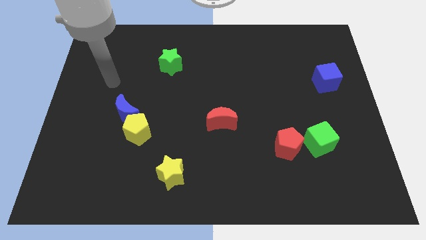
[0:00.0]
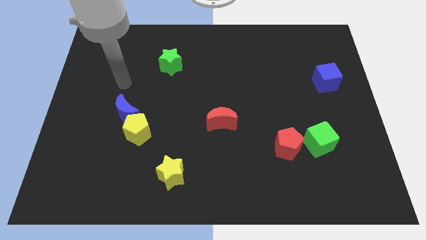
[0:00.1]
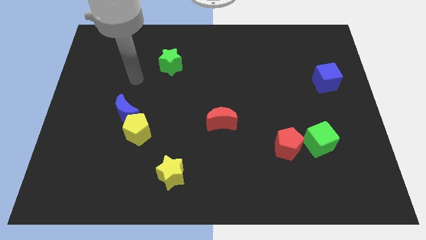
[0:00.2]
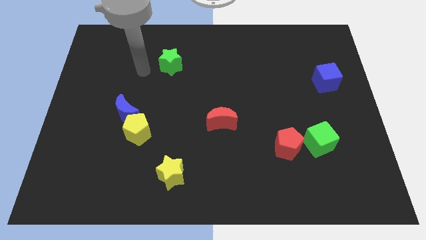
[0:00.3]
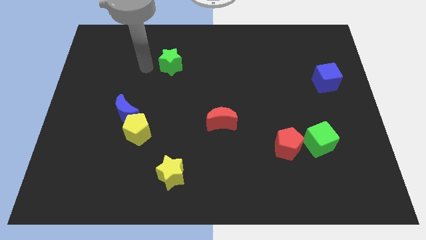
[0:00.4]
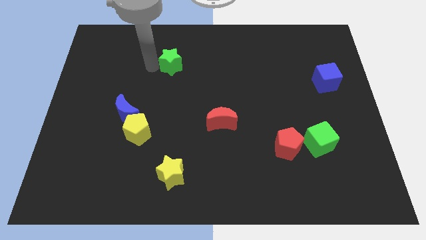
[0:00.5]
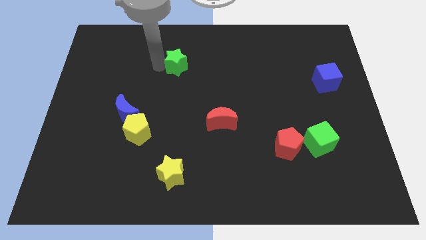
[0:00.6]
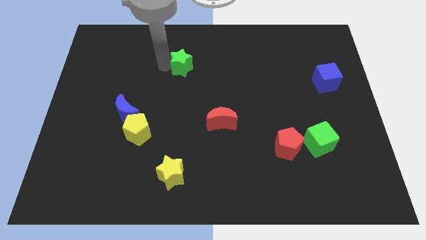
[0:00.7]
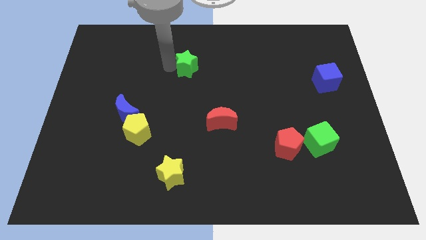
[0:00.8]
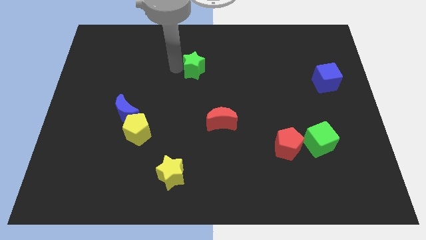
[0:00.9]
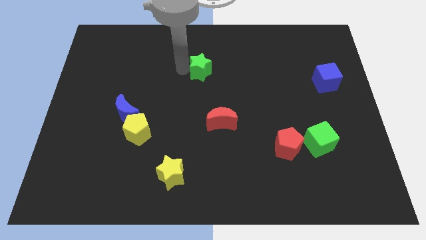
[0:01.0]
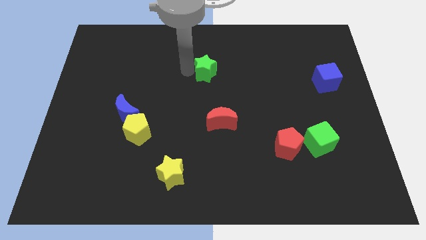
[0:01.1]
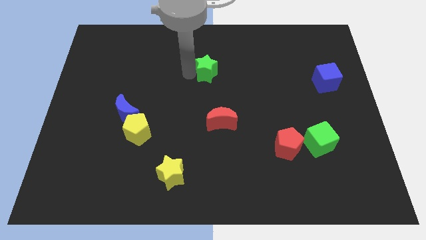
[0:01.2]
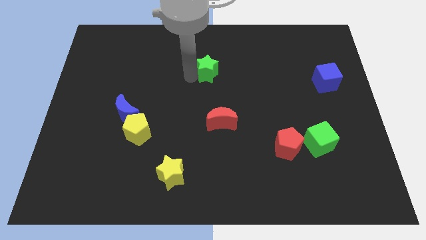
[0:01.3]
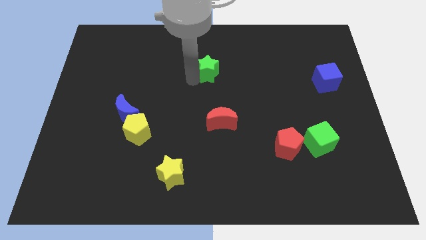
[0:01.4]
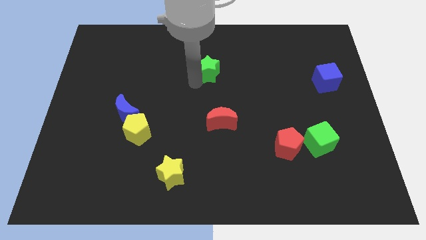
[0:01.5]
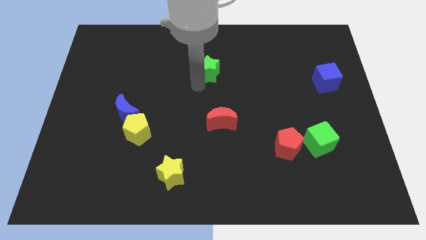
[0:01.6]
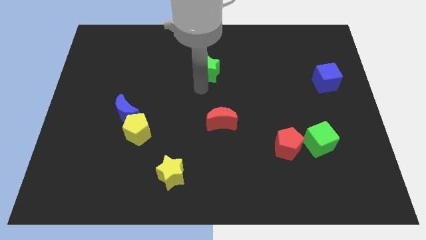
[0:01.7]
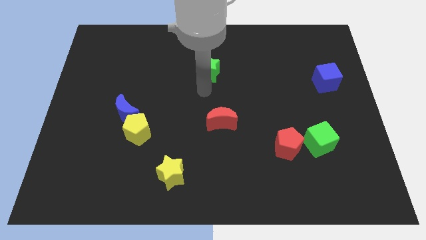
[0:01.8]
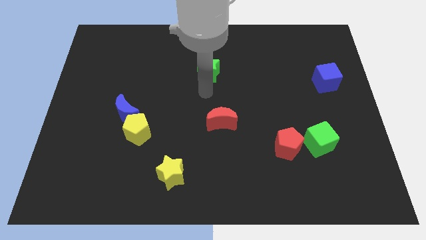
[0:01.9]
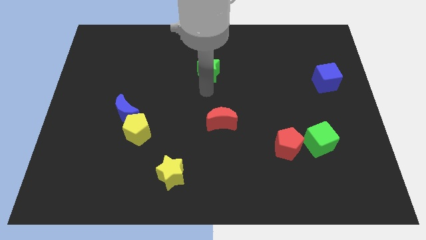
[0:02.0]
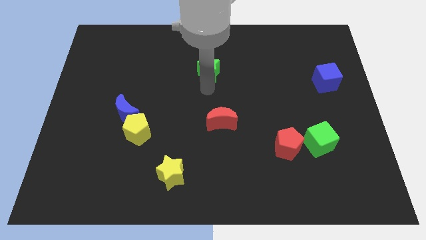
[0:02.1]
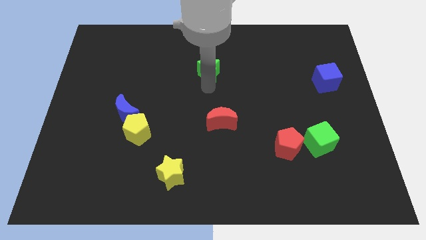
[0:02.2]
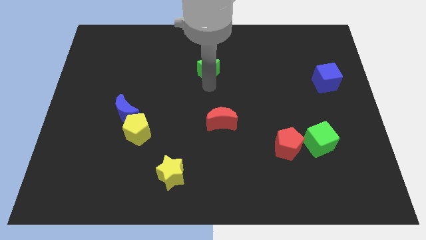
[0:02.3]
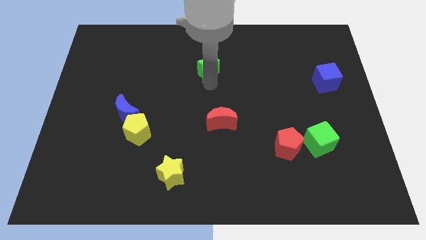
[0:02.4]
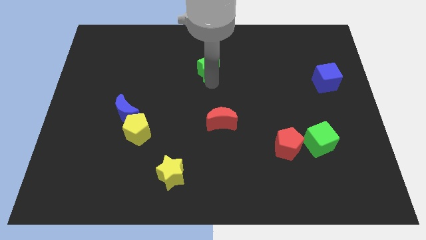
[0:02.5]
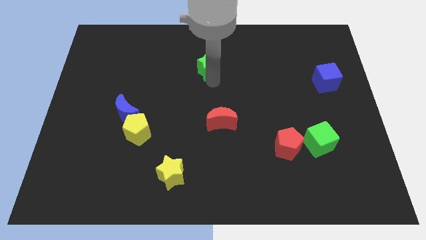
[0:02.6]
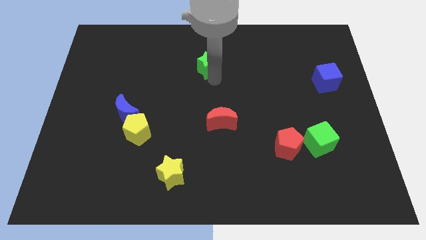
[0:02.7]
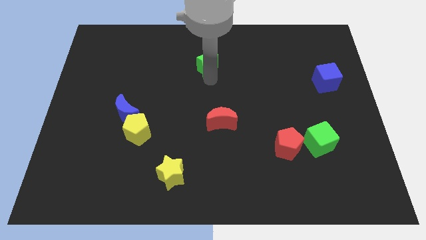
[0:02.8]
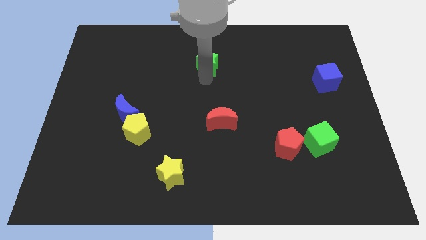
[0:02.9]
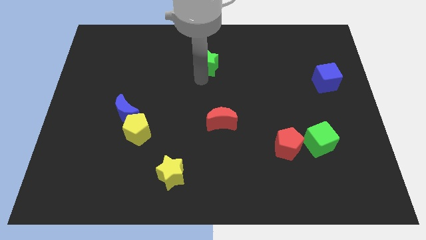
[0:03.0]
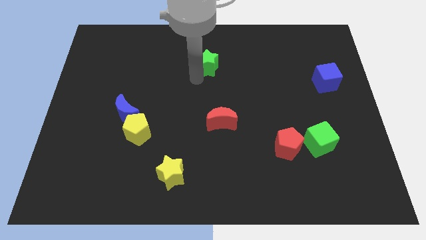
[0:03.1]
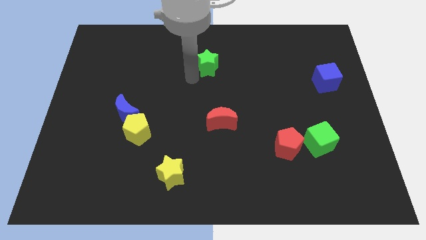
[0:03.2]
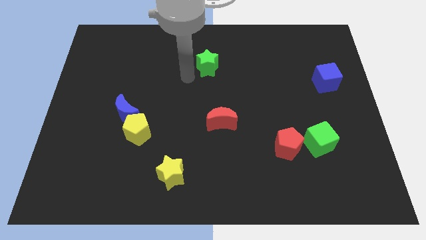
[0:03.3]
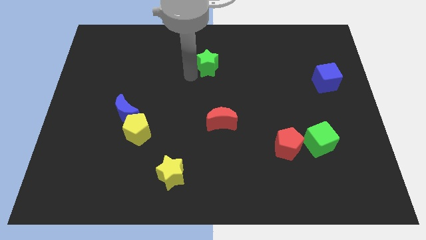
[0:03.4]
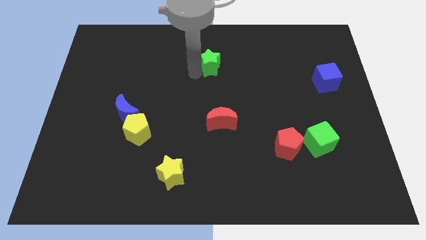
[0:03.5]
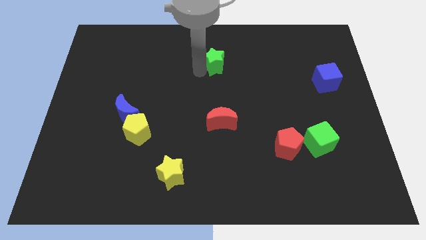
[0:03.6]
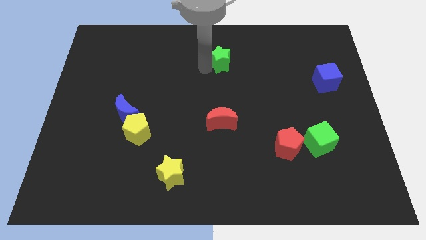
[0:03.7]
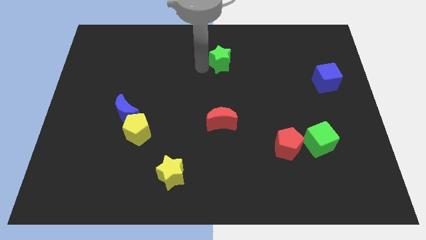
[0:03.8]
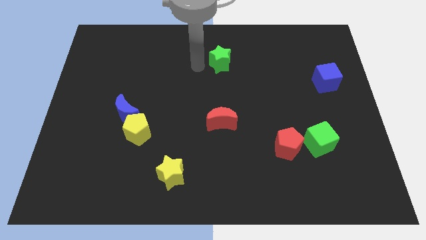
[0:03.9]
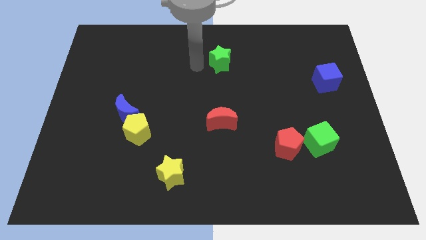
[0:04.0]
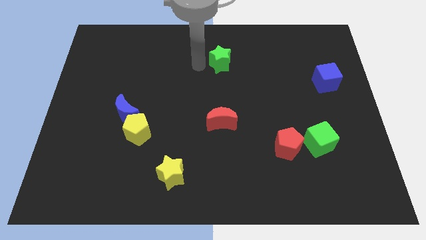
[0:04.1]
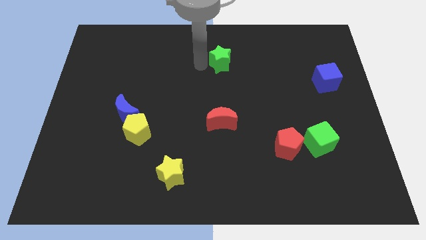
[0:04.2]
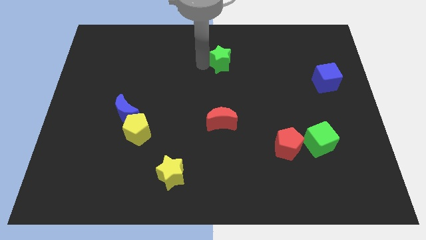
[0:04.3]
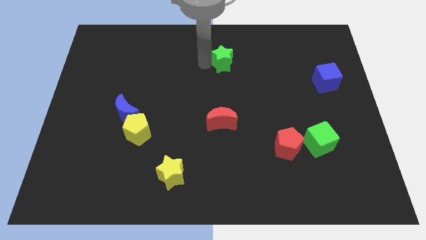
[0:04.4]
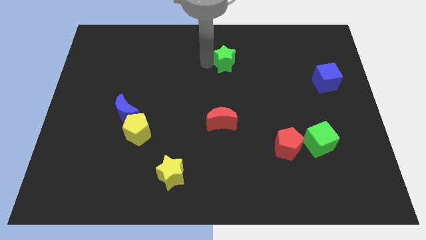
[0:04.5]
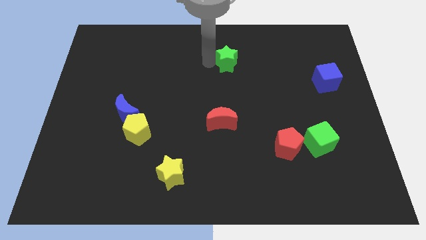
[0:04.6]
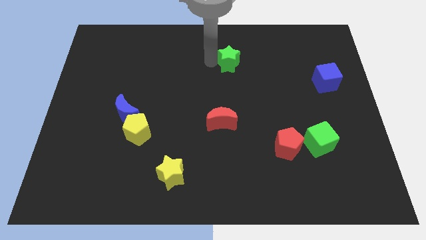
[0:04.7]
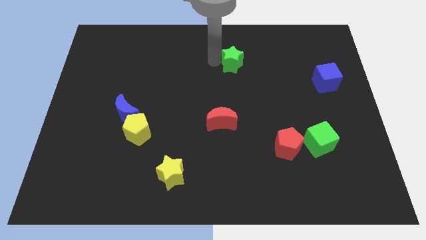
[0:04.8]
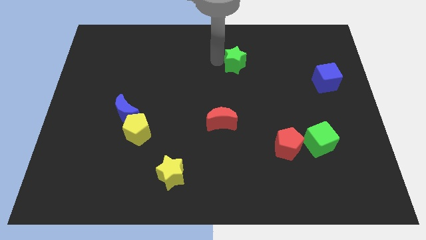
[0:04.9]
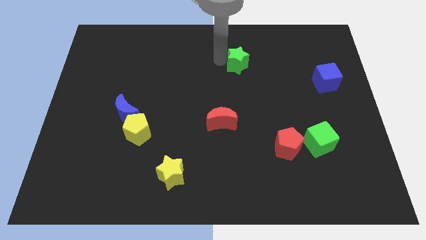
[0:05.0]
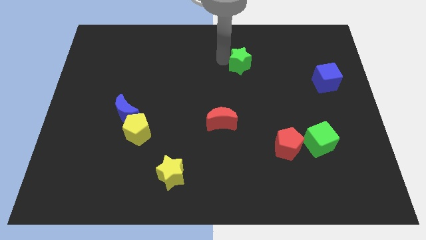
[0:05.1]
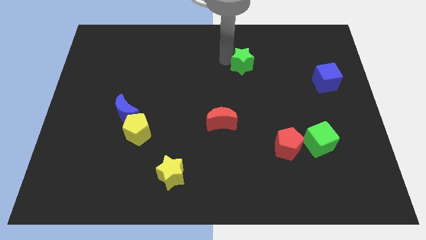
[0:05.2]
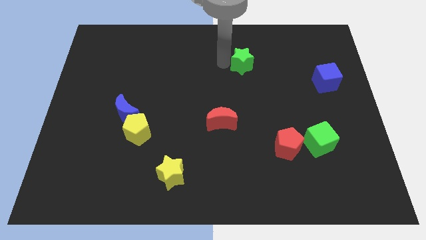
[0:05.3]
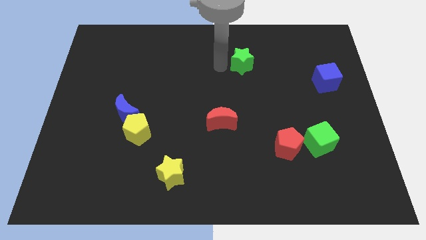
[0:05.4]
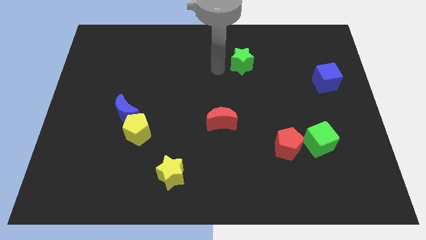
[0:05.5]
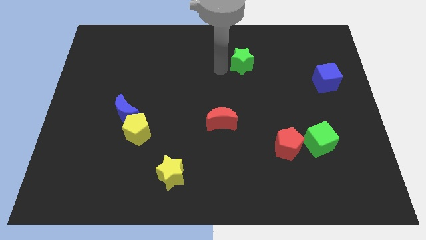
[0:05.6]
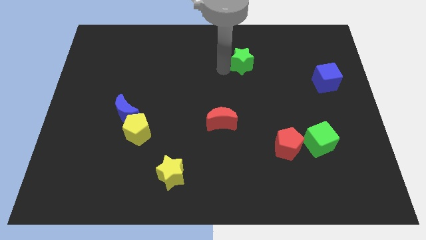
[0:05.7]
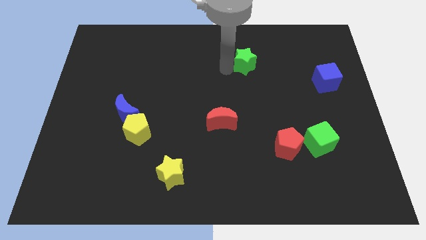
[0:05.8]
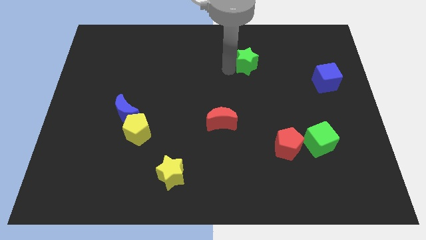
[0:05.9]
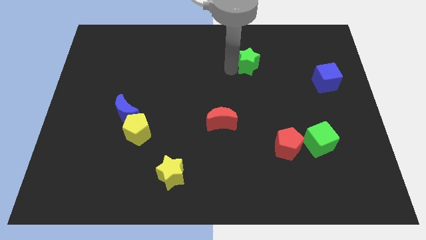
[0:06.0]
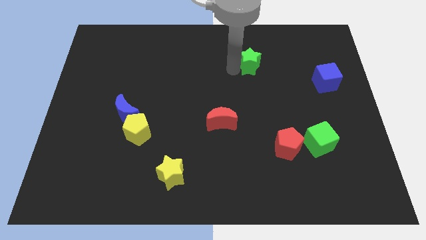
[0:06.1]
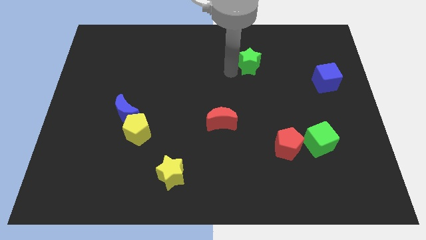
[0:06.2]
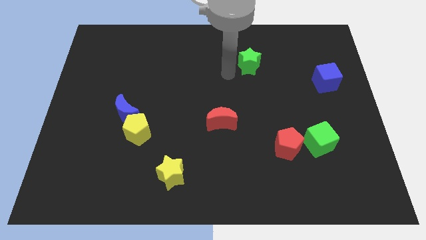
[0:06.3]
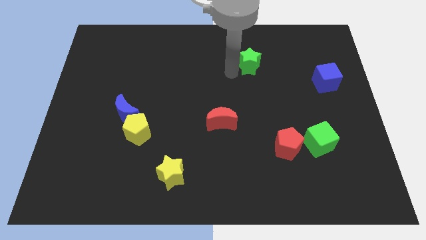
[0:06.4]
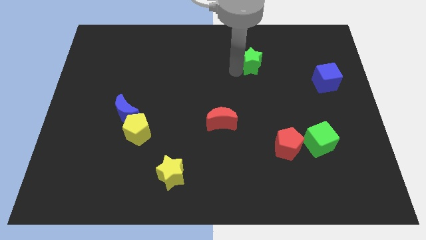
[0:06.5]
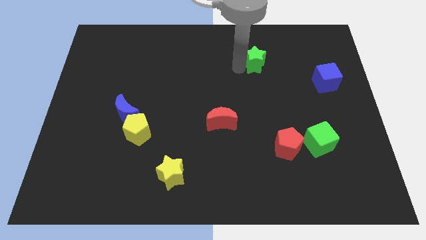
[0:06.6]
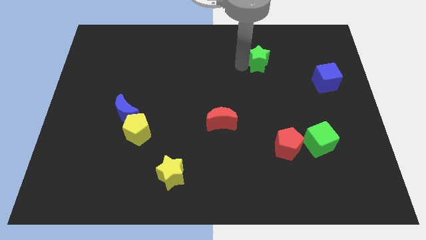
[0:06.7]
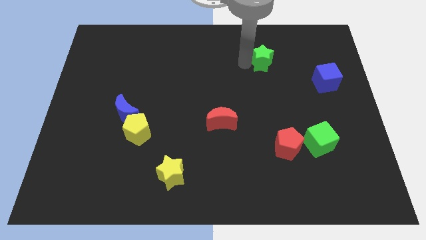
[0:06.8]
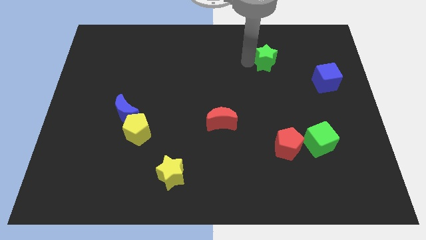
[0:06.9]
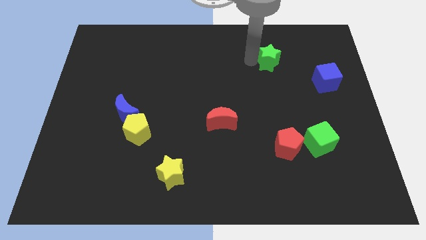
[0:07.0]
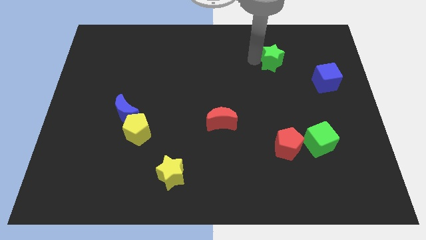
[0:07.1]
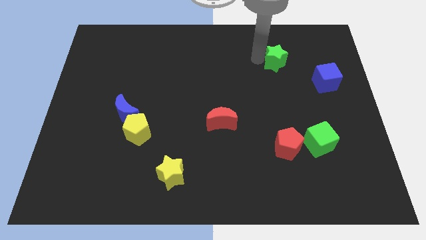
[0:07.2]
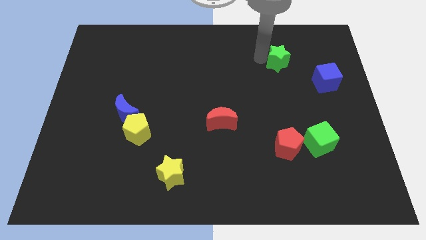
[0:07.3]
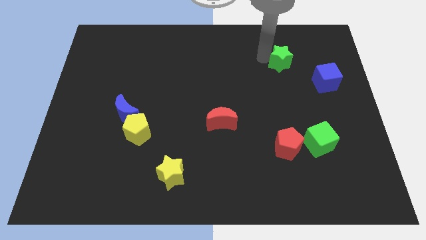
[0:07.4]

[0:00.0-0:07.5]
push the green star to the top left side of the blue cube
